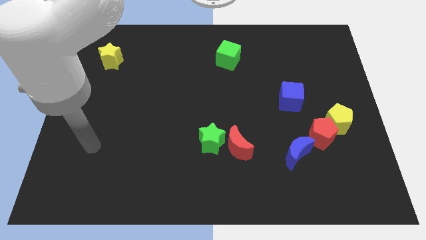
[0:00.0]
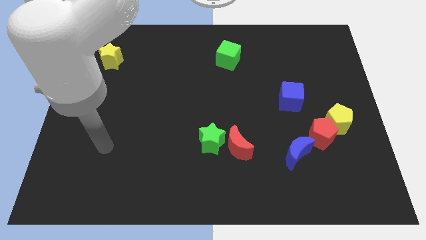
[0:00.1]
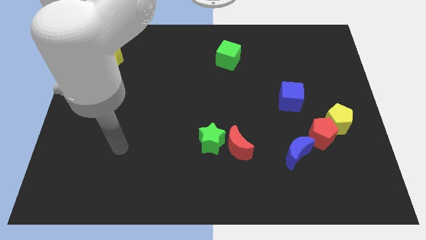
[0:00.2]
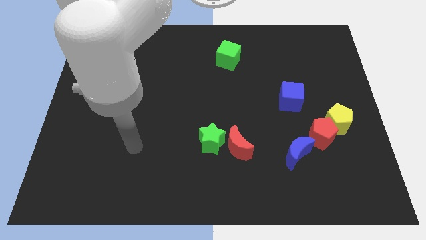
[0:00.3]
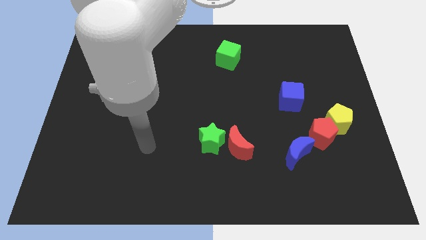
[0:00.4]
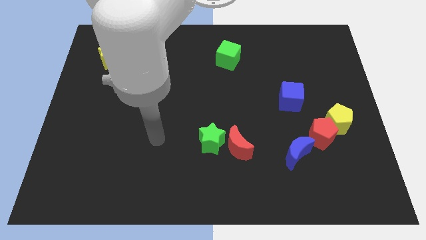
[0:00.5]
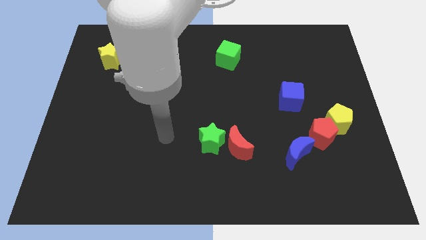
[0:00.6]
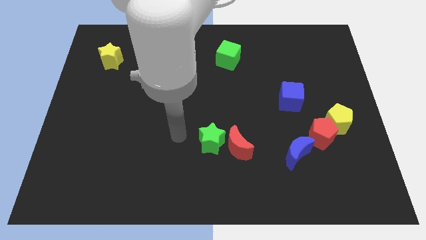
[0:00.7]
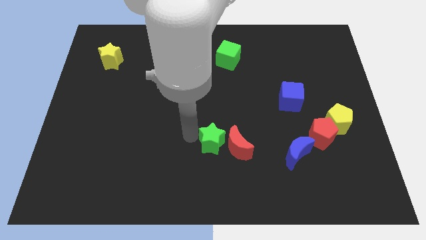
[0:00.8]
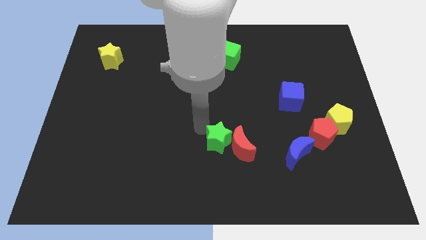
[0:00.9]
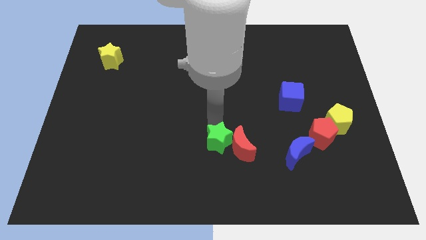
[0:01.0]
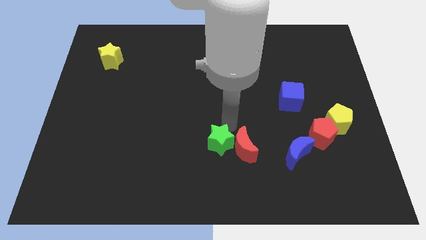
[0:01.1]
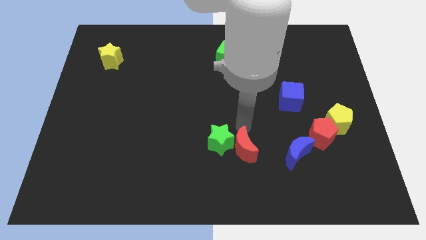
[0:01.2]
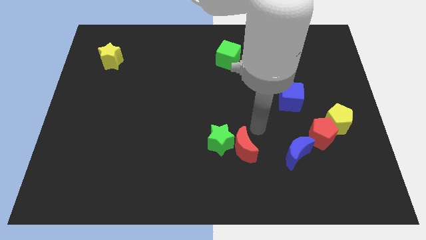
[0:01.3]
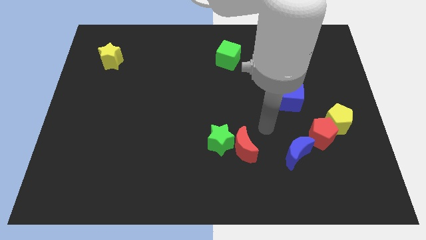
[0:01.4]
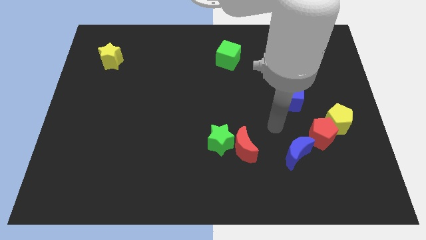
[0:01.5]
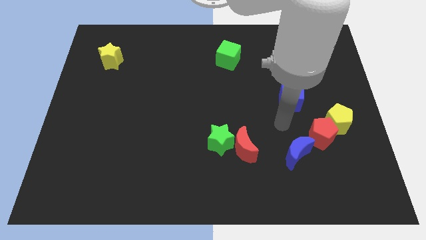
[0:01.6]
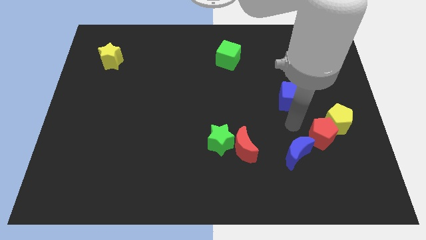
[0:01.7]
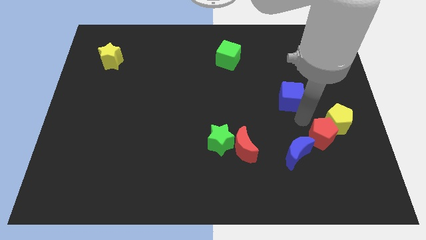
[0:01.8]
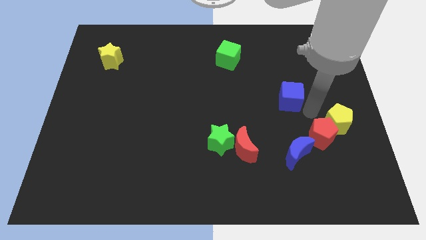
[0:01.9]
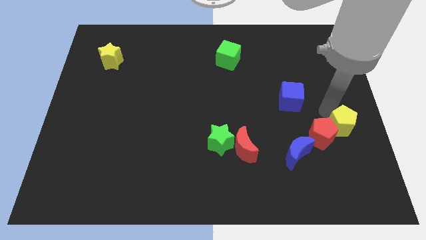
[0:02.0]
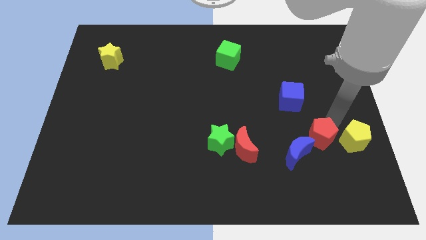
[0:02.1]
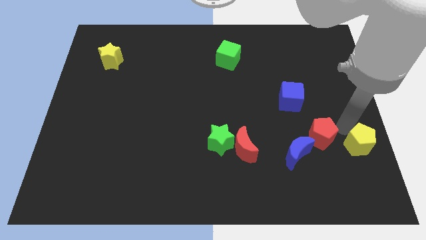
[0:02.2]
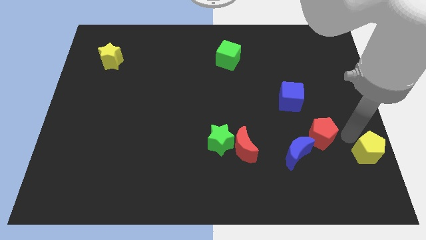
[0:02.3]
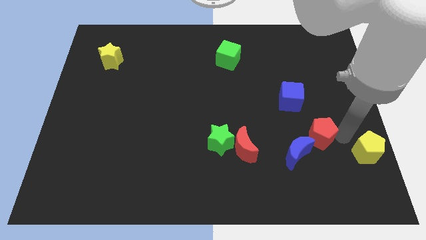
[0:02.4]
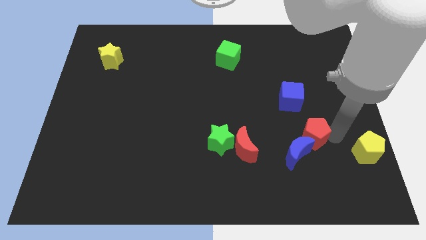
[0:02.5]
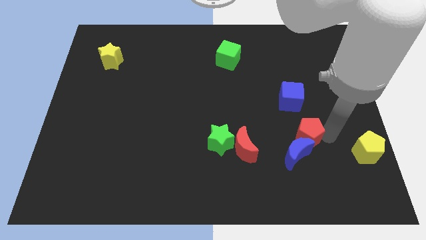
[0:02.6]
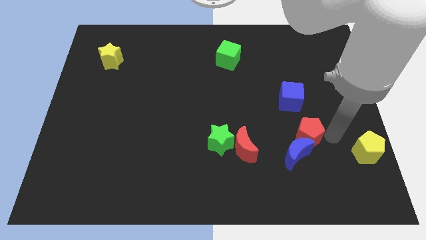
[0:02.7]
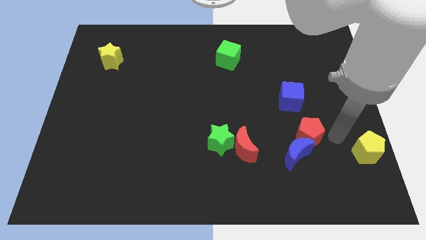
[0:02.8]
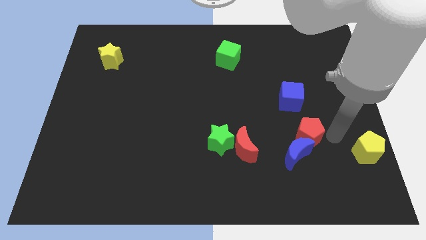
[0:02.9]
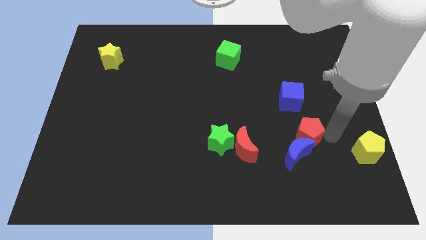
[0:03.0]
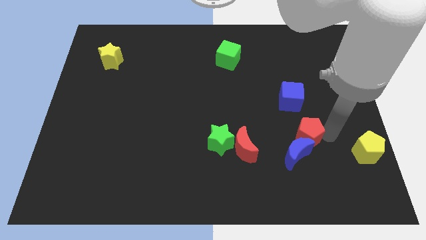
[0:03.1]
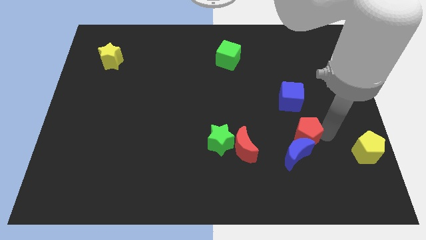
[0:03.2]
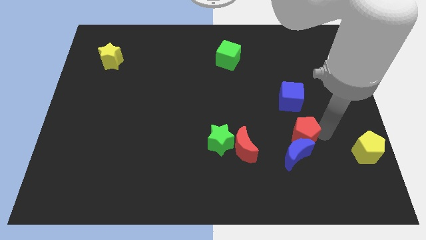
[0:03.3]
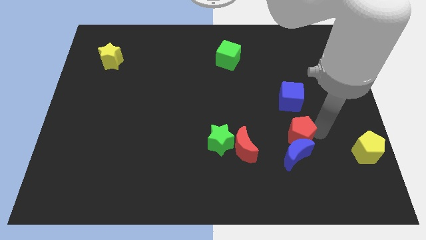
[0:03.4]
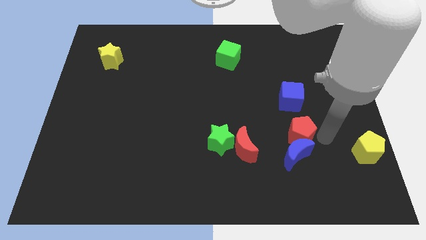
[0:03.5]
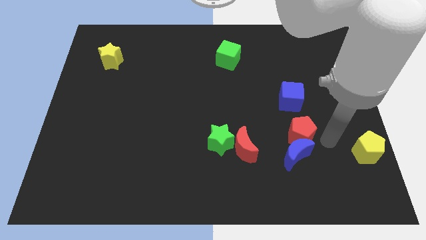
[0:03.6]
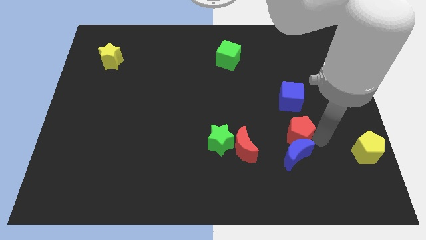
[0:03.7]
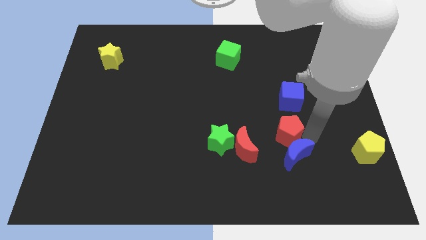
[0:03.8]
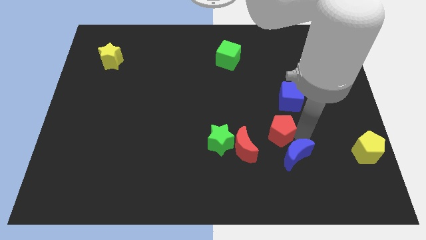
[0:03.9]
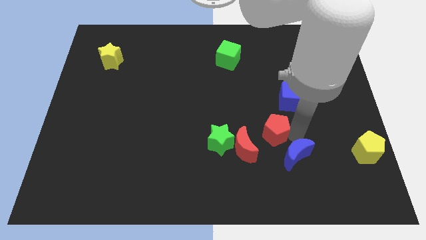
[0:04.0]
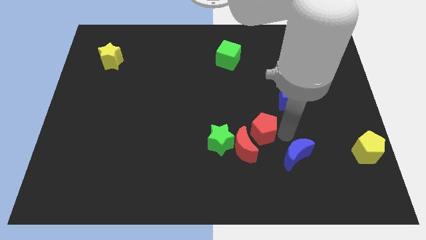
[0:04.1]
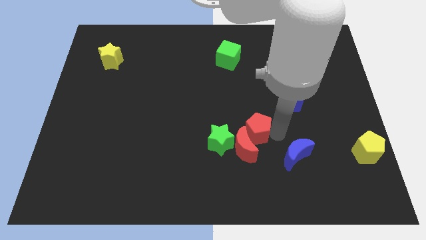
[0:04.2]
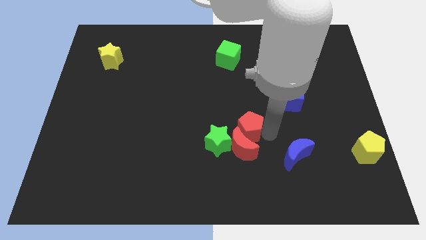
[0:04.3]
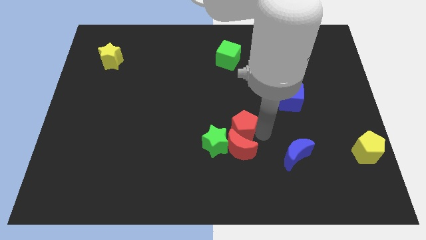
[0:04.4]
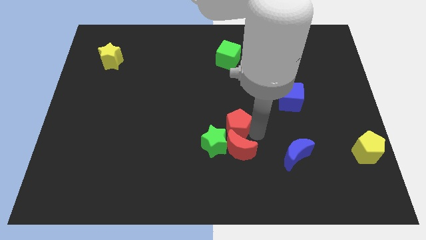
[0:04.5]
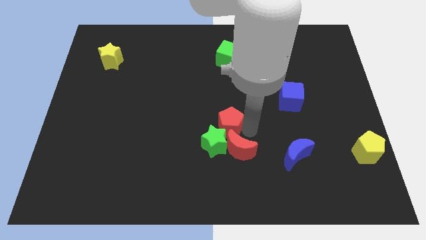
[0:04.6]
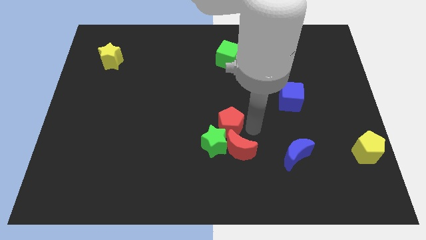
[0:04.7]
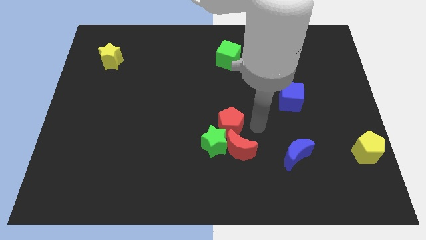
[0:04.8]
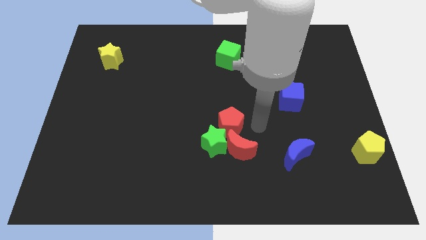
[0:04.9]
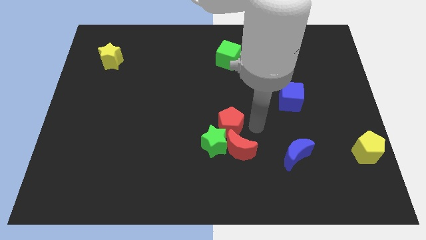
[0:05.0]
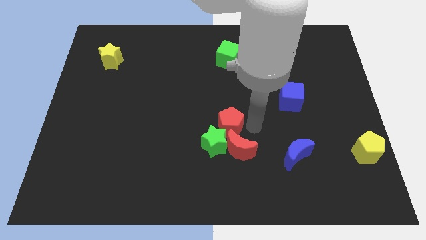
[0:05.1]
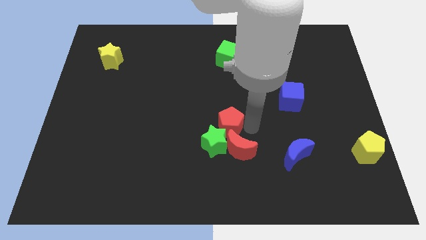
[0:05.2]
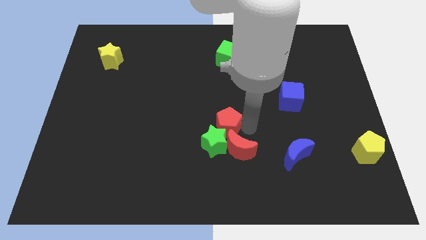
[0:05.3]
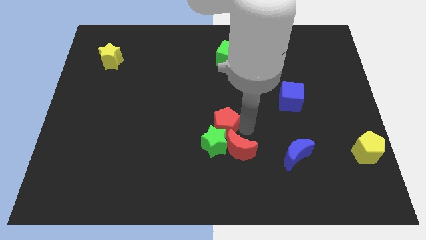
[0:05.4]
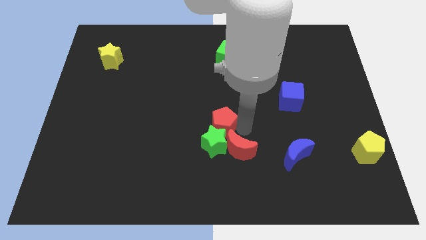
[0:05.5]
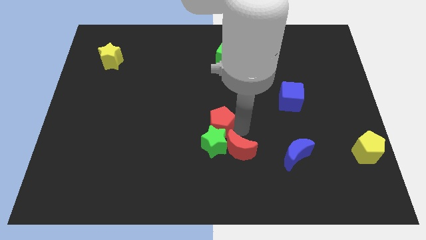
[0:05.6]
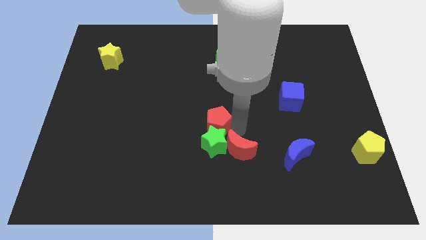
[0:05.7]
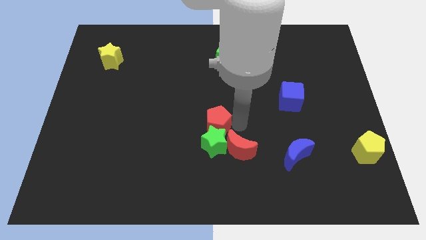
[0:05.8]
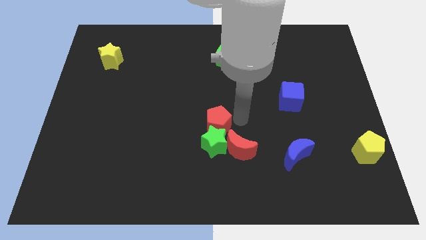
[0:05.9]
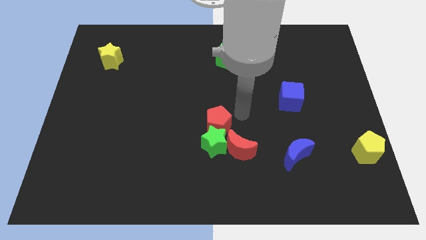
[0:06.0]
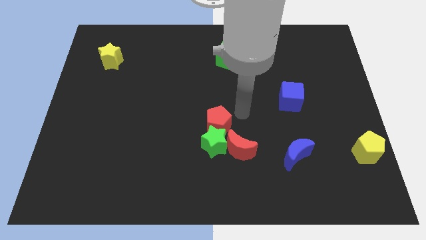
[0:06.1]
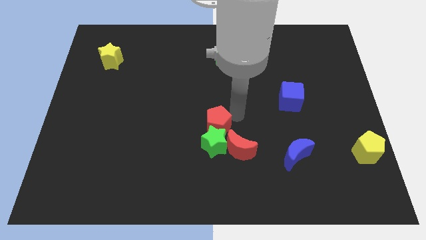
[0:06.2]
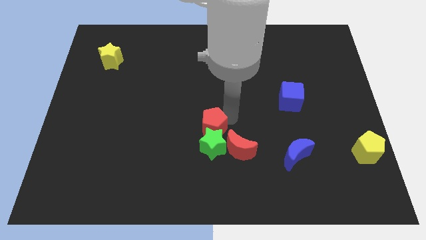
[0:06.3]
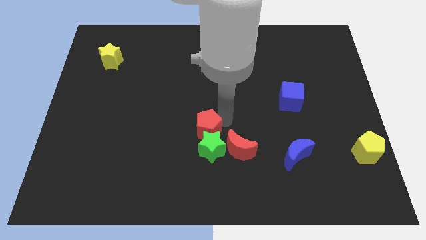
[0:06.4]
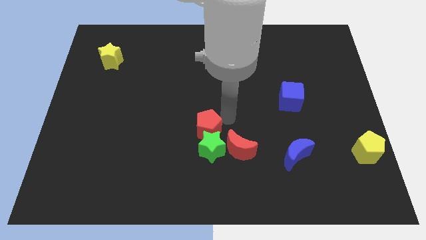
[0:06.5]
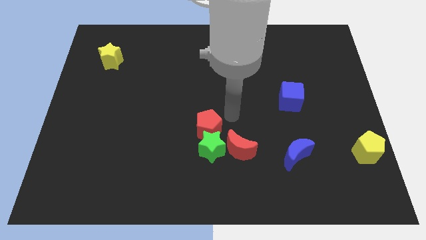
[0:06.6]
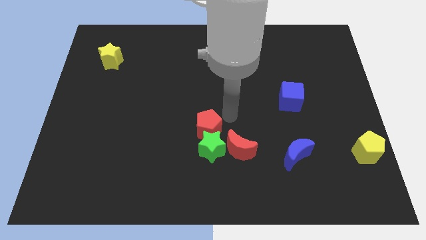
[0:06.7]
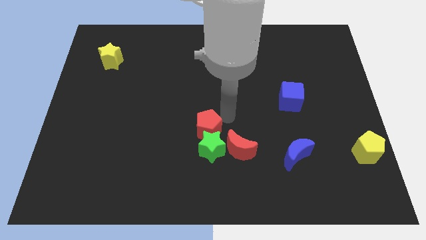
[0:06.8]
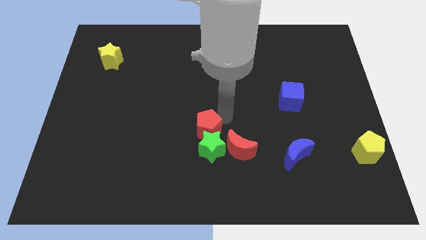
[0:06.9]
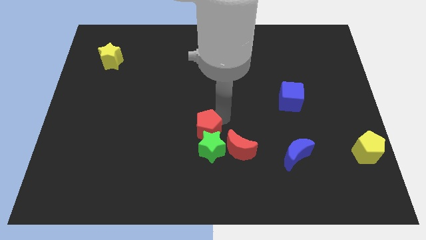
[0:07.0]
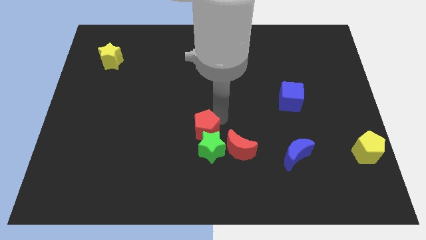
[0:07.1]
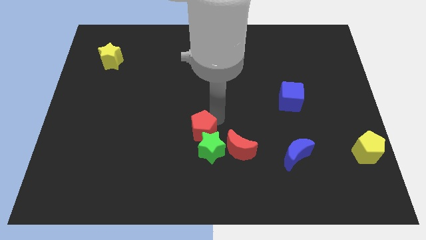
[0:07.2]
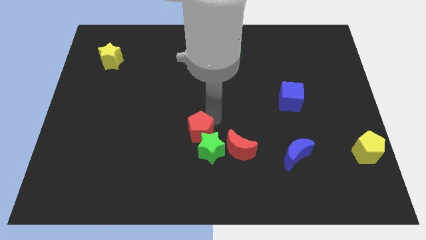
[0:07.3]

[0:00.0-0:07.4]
move the red pentagon just left of the red moon

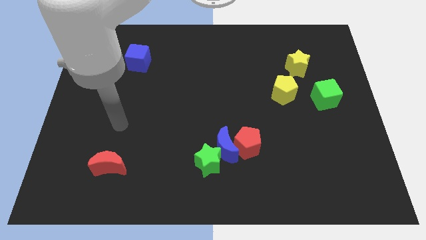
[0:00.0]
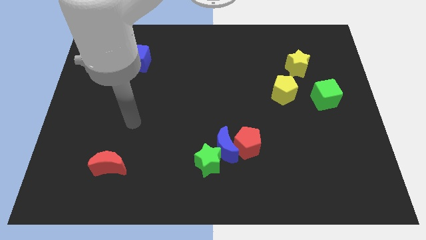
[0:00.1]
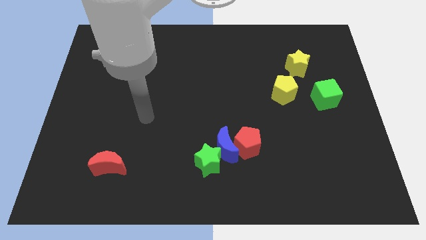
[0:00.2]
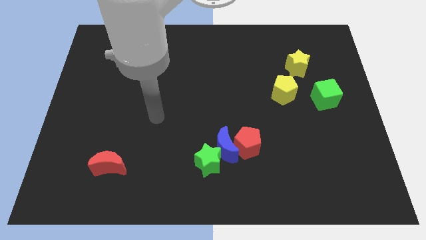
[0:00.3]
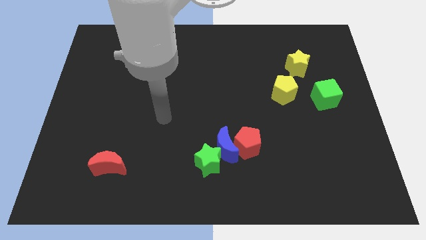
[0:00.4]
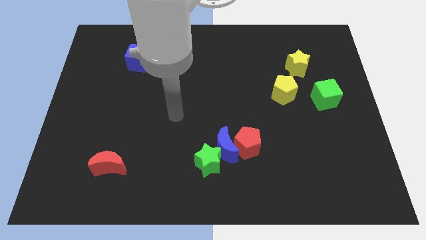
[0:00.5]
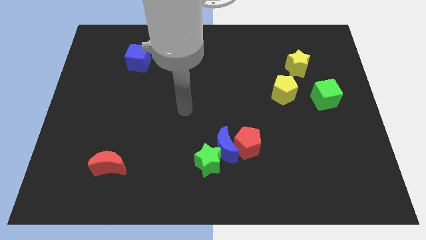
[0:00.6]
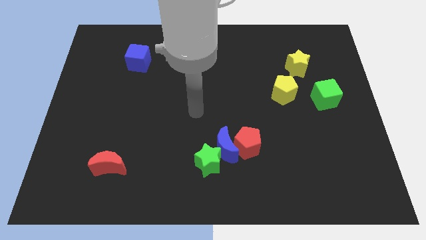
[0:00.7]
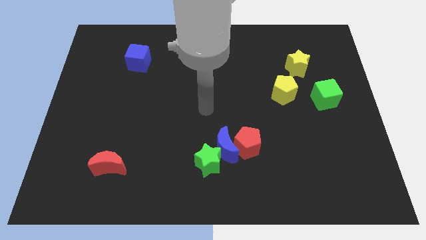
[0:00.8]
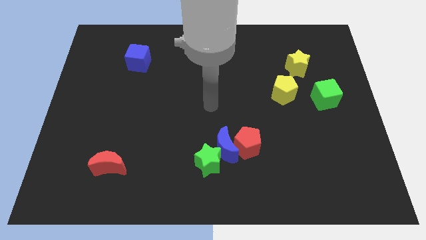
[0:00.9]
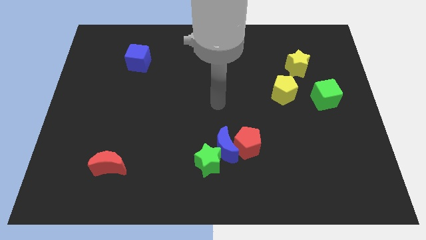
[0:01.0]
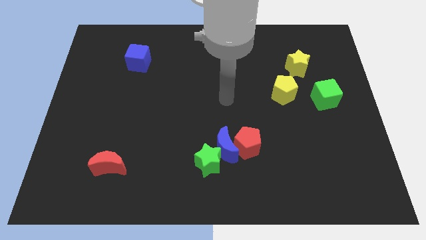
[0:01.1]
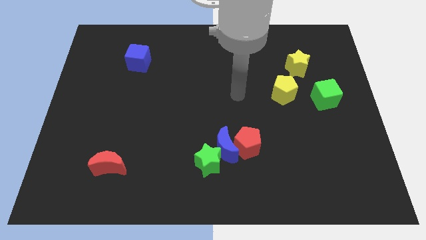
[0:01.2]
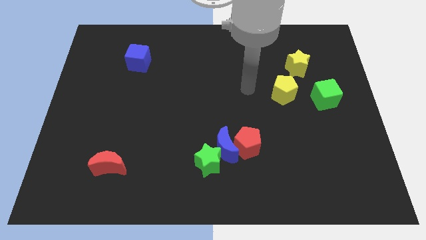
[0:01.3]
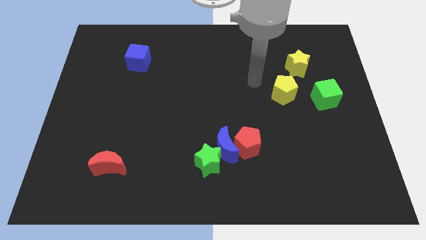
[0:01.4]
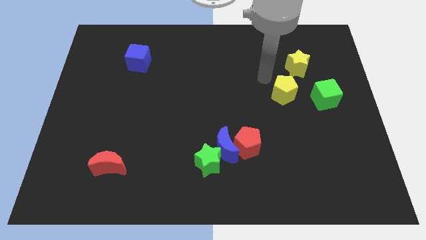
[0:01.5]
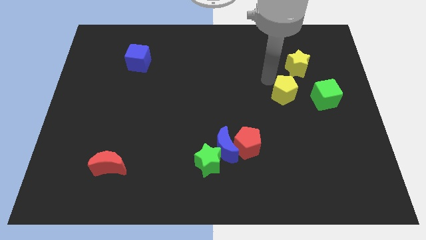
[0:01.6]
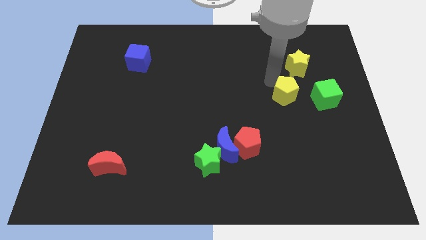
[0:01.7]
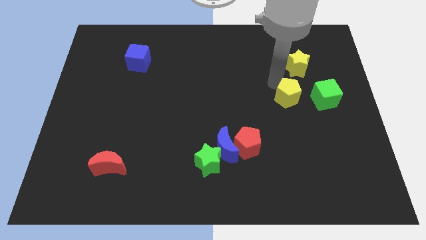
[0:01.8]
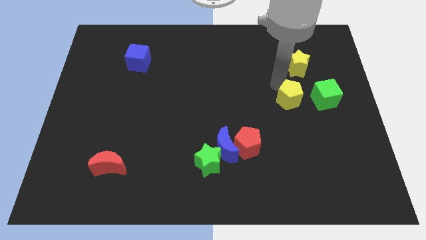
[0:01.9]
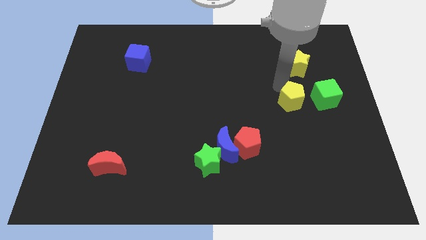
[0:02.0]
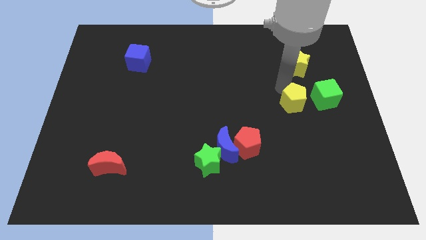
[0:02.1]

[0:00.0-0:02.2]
push the yellow pentagon diagonally down and to the left of the green cube
